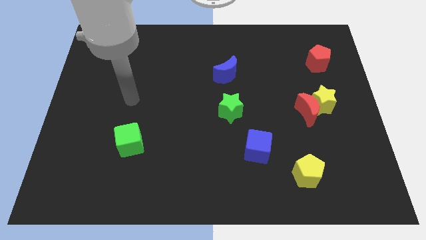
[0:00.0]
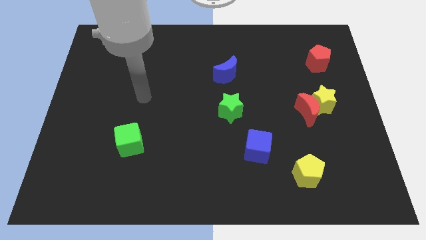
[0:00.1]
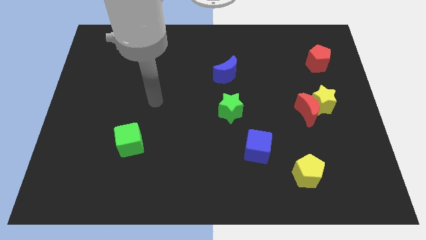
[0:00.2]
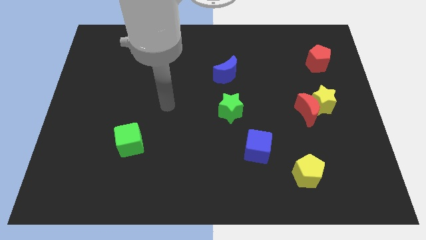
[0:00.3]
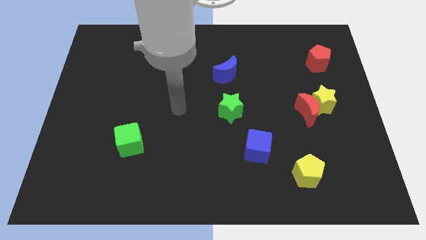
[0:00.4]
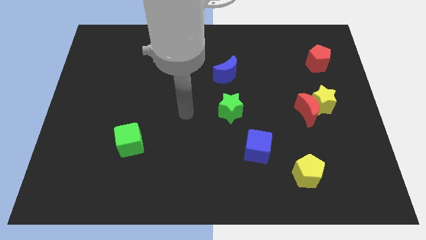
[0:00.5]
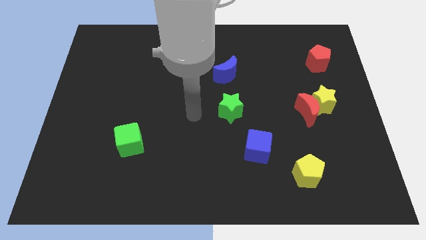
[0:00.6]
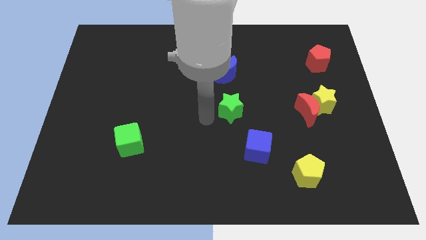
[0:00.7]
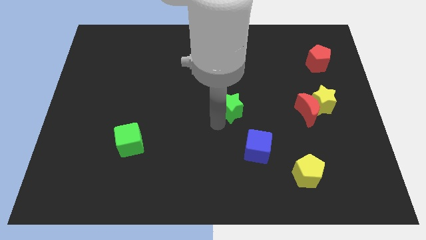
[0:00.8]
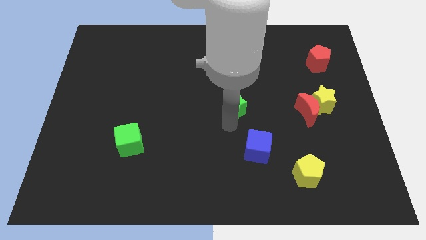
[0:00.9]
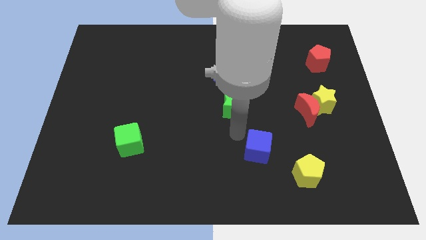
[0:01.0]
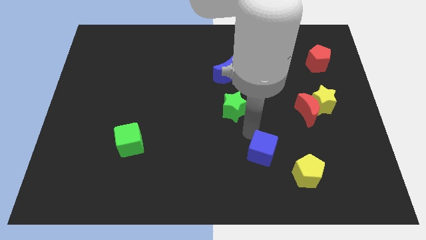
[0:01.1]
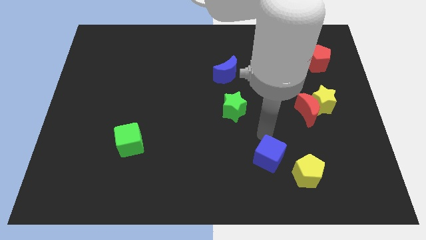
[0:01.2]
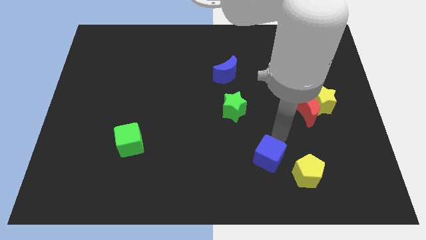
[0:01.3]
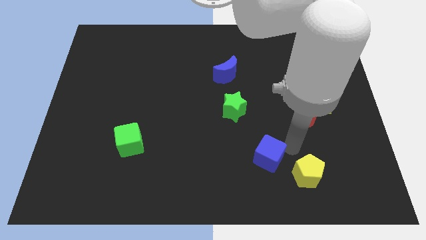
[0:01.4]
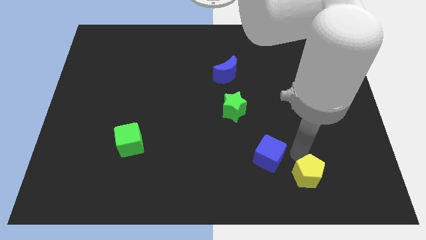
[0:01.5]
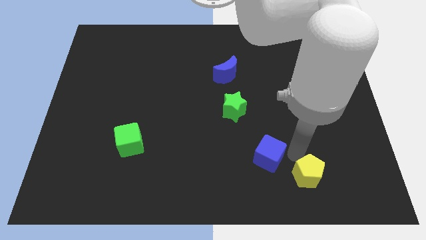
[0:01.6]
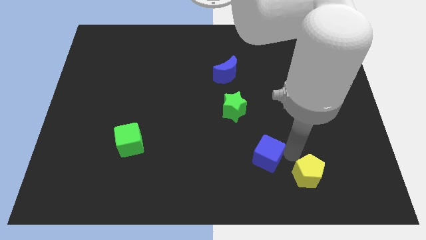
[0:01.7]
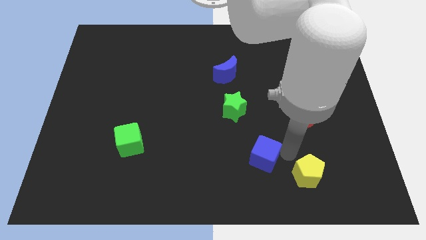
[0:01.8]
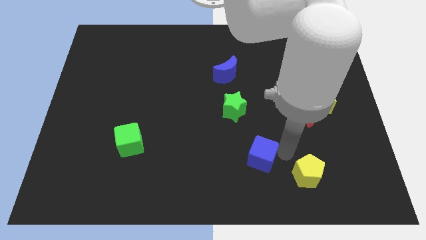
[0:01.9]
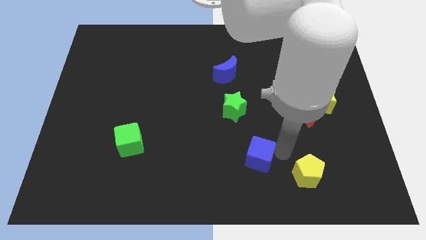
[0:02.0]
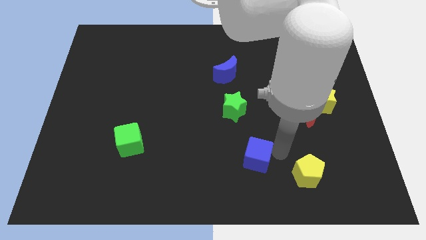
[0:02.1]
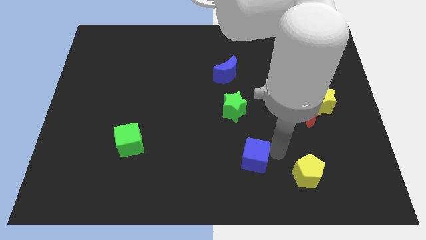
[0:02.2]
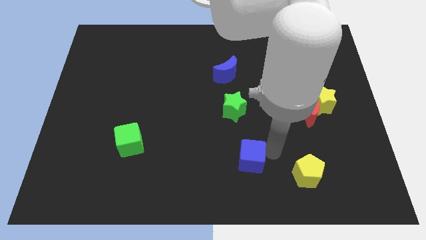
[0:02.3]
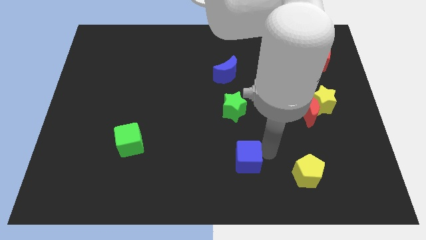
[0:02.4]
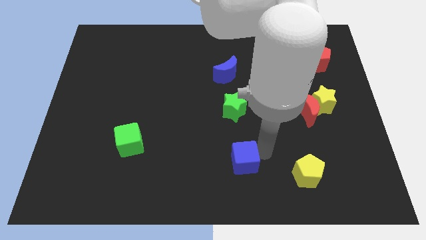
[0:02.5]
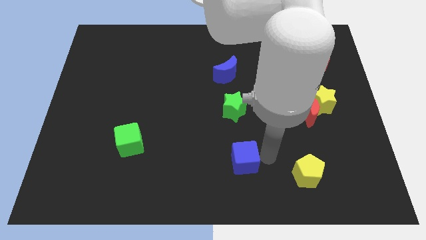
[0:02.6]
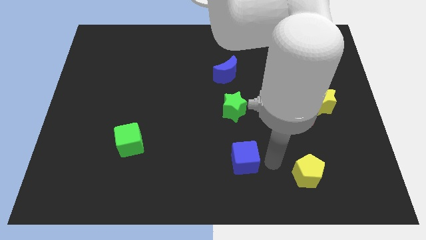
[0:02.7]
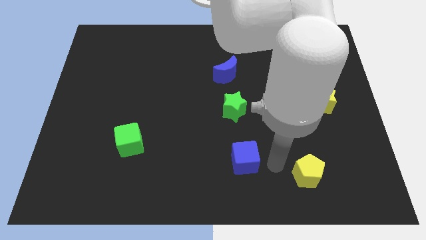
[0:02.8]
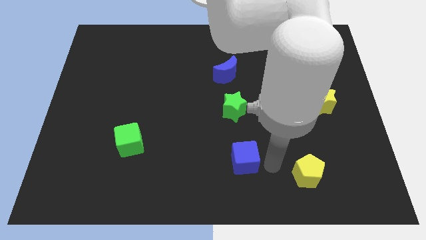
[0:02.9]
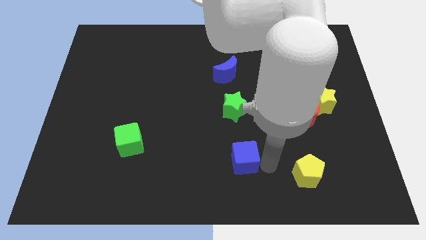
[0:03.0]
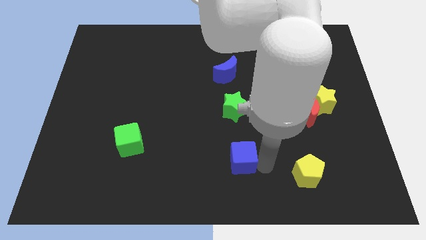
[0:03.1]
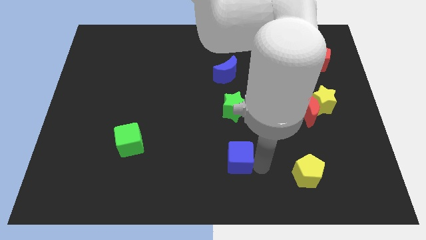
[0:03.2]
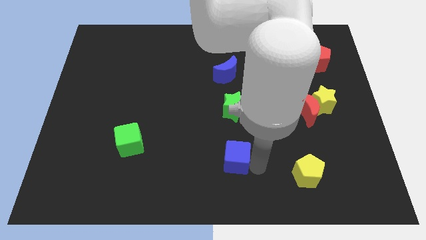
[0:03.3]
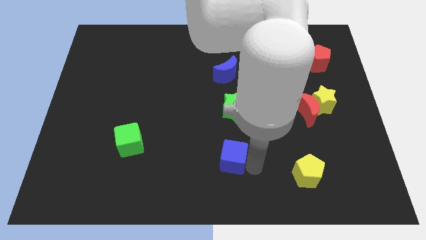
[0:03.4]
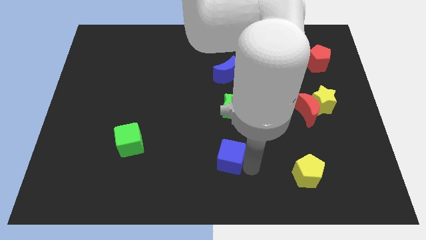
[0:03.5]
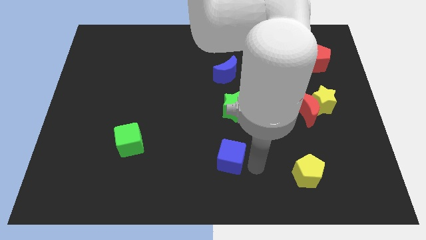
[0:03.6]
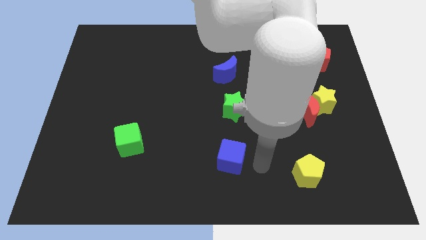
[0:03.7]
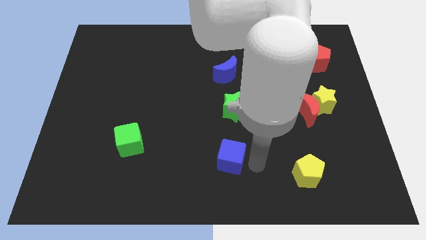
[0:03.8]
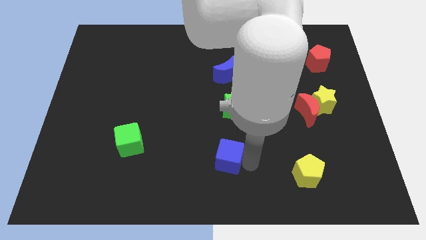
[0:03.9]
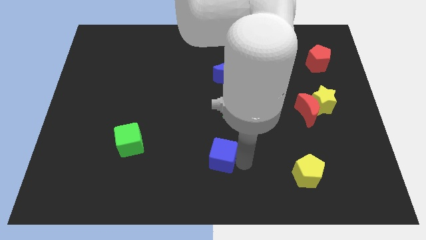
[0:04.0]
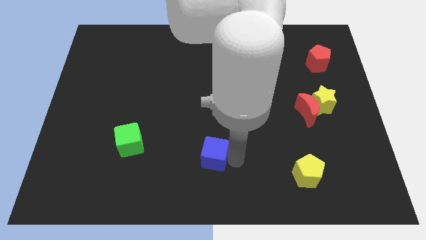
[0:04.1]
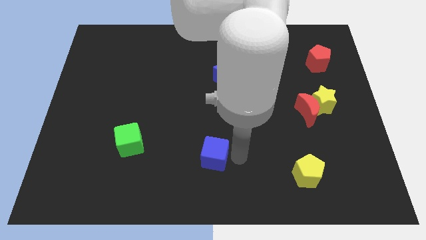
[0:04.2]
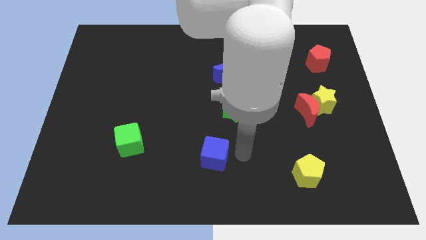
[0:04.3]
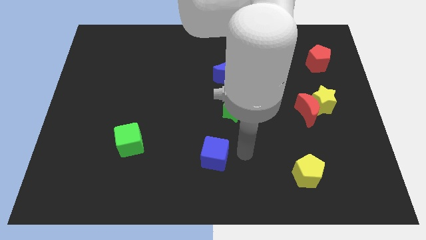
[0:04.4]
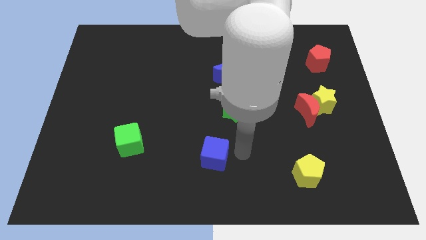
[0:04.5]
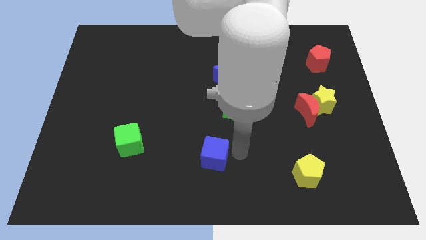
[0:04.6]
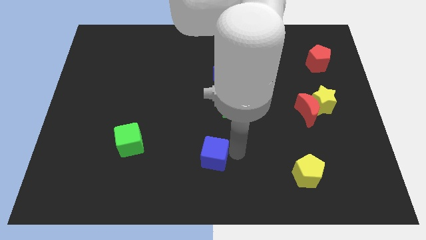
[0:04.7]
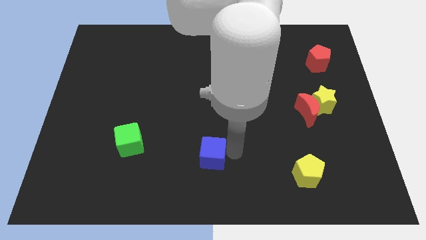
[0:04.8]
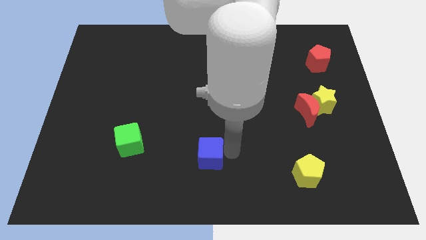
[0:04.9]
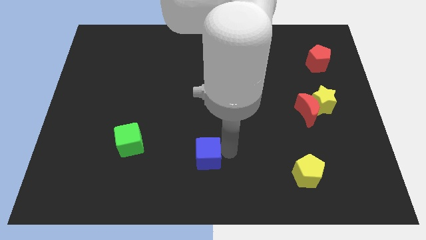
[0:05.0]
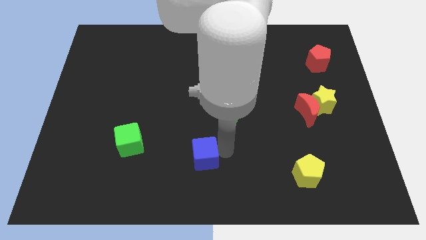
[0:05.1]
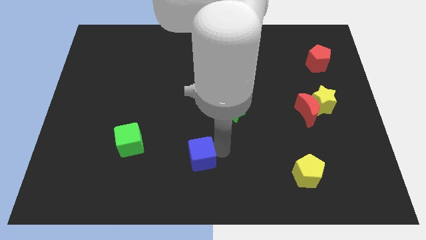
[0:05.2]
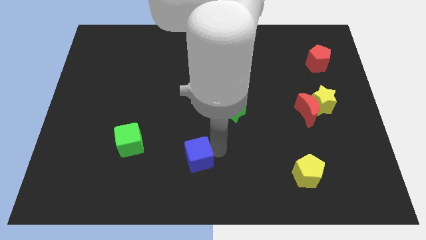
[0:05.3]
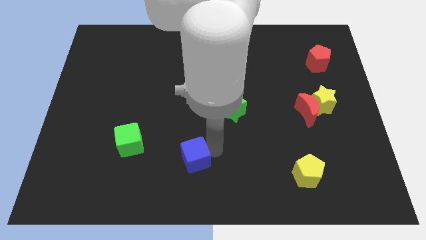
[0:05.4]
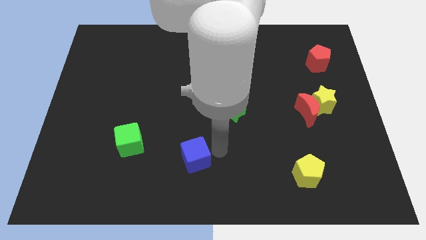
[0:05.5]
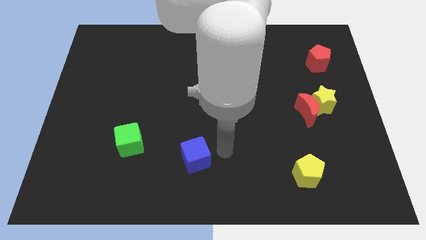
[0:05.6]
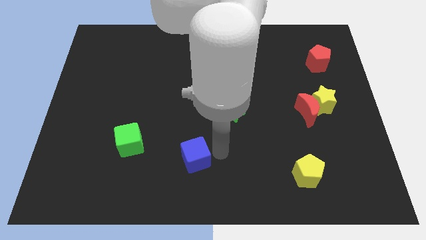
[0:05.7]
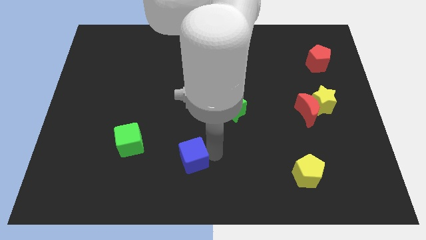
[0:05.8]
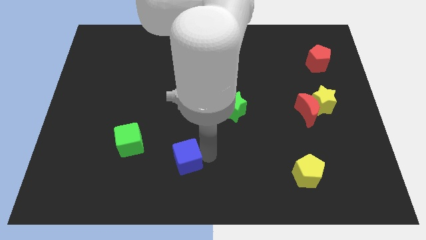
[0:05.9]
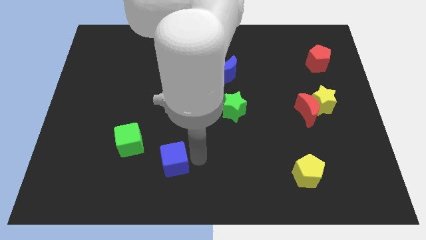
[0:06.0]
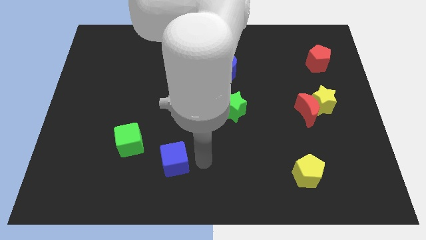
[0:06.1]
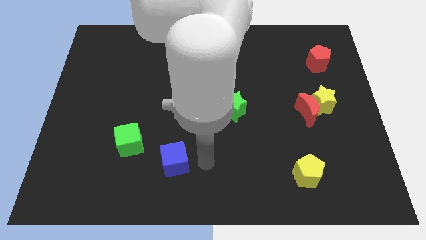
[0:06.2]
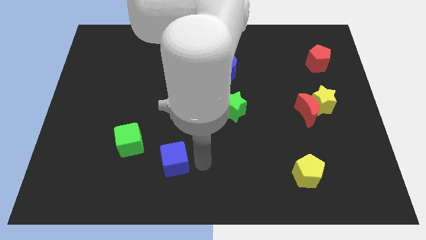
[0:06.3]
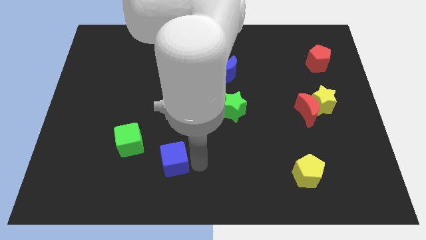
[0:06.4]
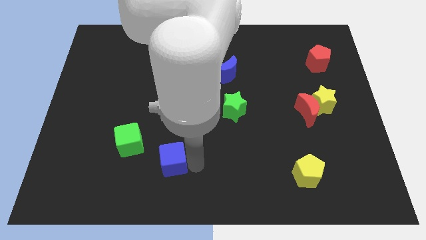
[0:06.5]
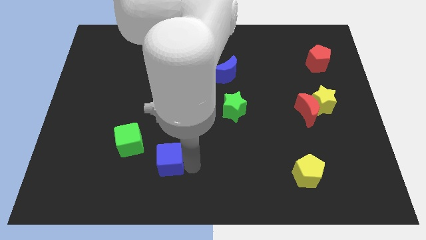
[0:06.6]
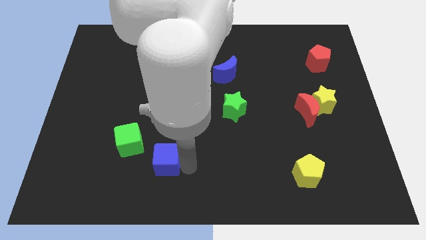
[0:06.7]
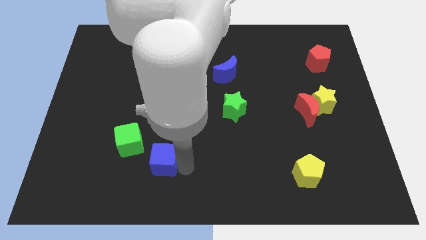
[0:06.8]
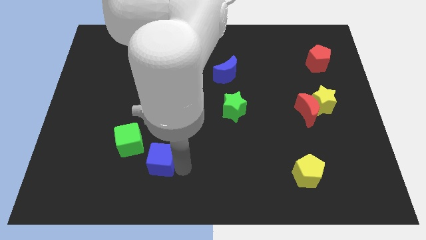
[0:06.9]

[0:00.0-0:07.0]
push the blue cube to the left

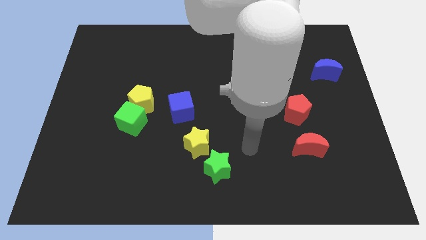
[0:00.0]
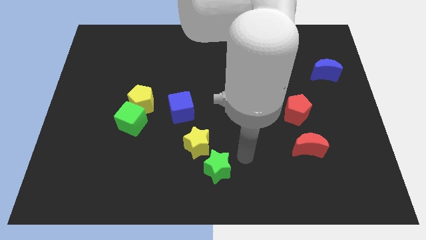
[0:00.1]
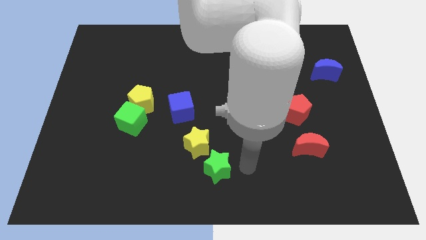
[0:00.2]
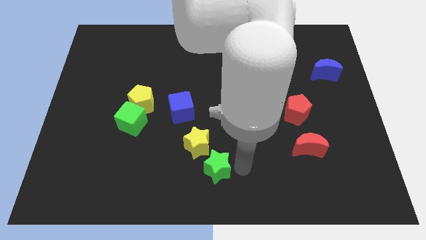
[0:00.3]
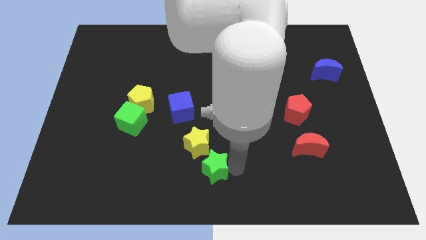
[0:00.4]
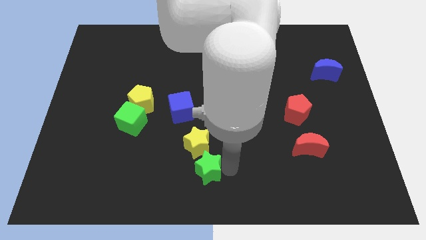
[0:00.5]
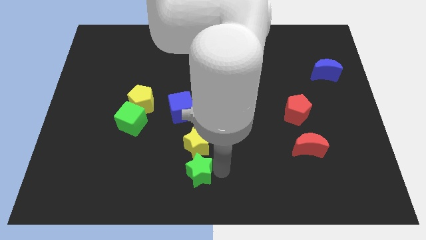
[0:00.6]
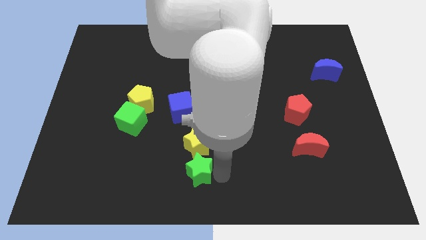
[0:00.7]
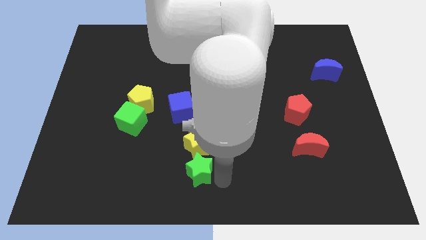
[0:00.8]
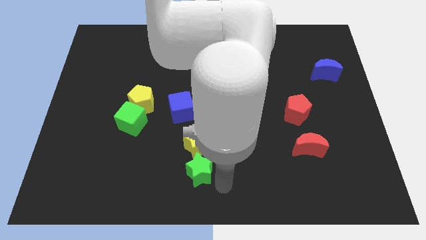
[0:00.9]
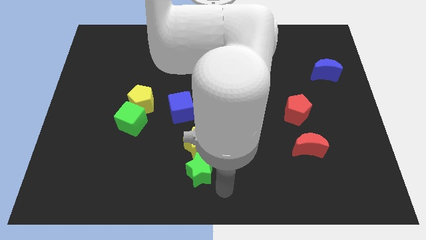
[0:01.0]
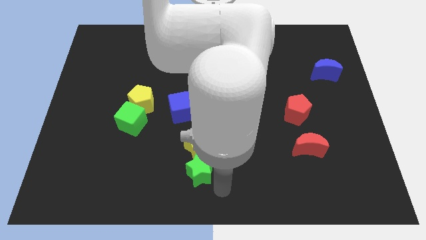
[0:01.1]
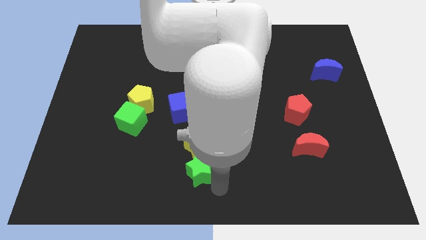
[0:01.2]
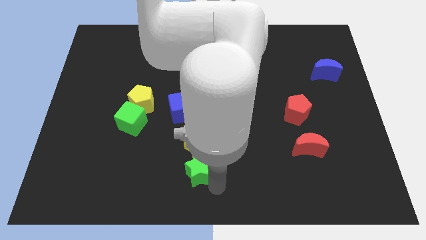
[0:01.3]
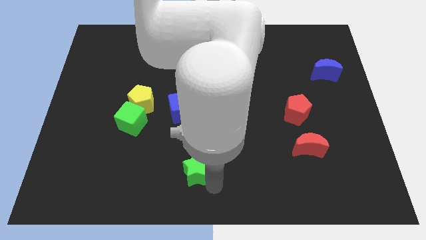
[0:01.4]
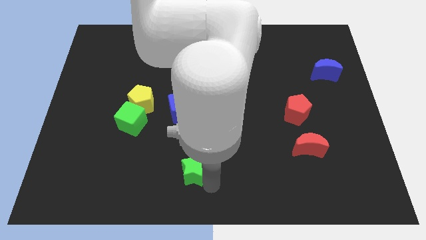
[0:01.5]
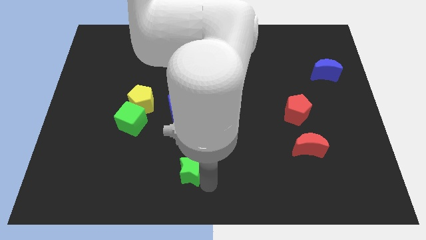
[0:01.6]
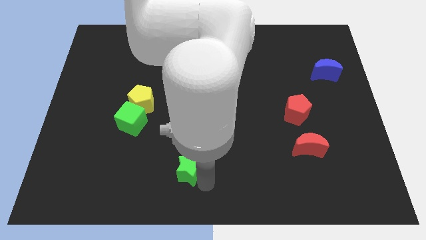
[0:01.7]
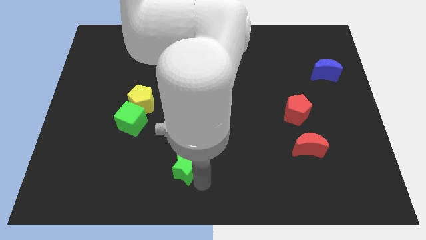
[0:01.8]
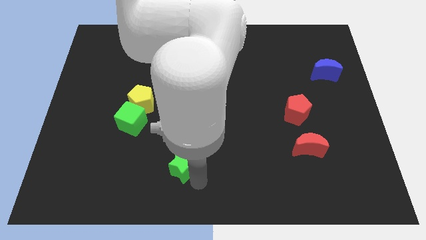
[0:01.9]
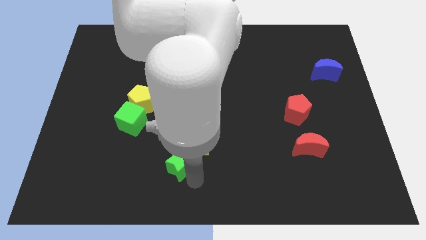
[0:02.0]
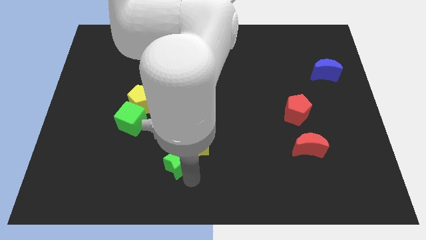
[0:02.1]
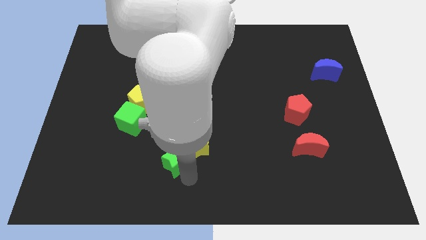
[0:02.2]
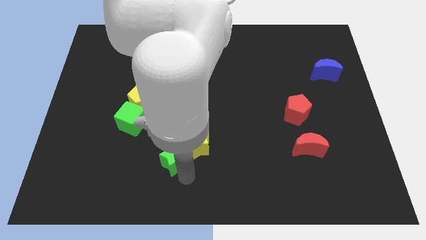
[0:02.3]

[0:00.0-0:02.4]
push the green star slightly upwards and then to the left
